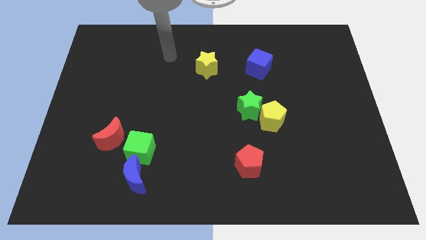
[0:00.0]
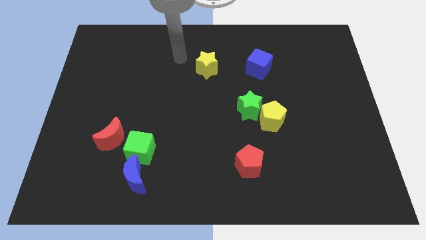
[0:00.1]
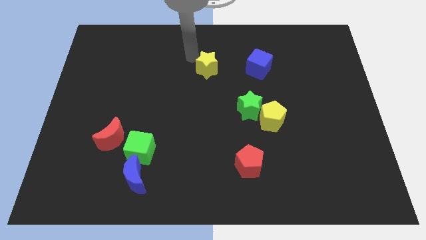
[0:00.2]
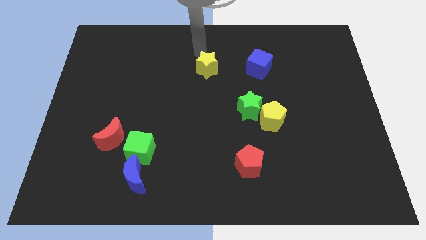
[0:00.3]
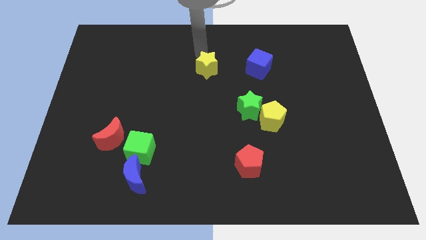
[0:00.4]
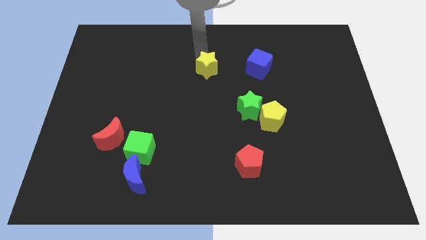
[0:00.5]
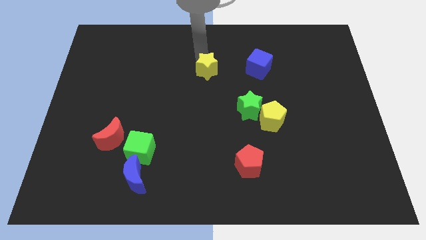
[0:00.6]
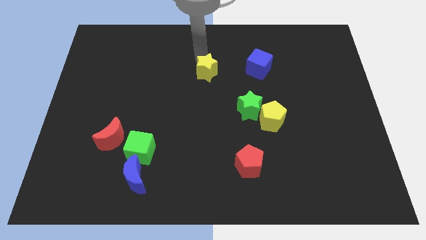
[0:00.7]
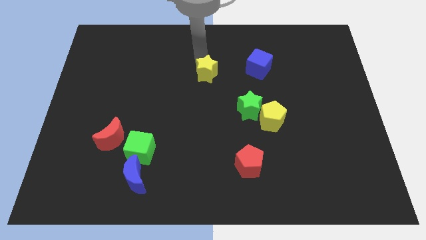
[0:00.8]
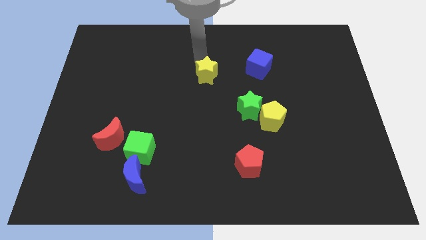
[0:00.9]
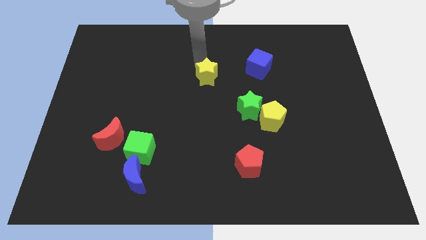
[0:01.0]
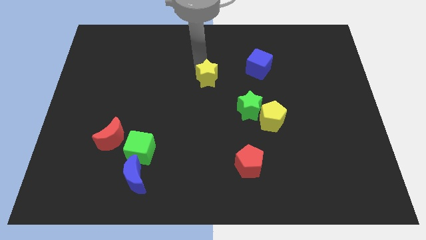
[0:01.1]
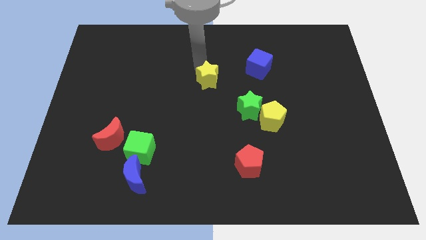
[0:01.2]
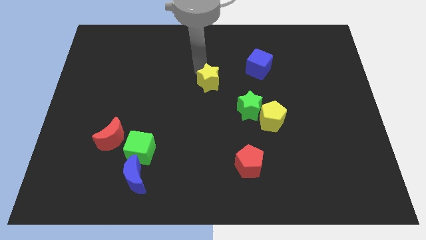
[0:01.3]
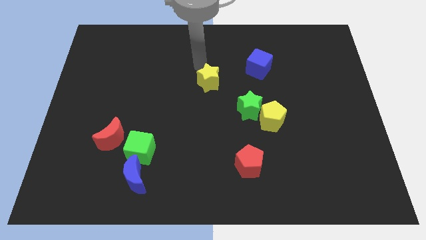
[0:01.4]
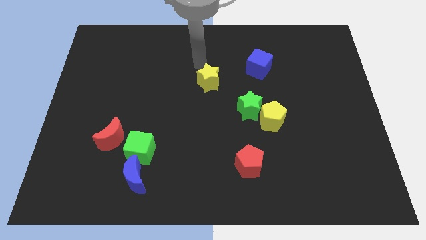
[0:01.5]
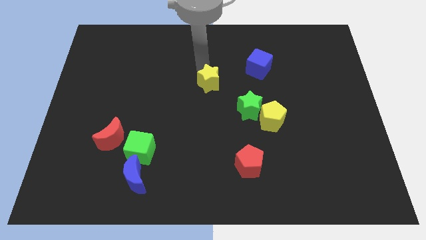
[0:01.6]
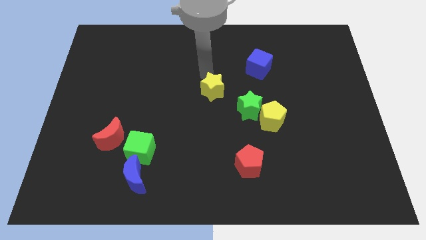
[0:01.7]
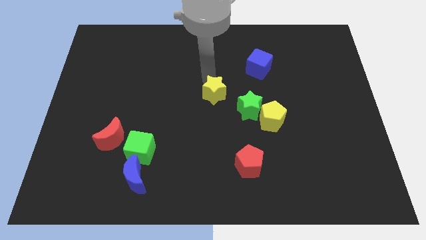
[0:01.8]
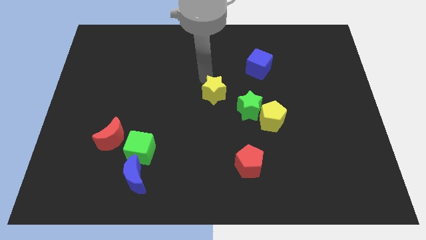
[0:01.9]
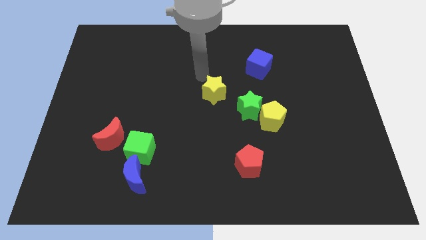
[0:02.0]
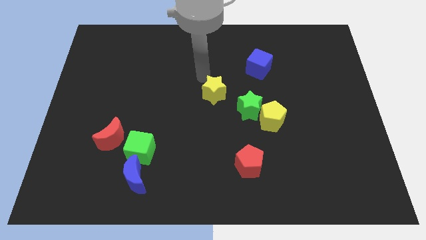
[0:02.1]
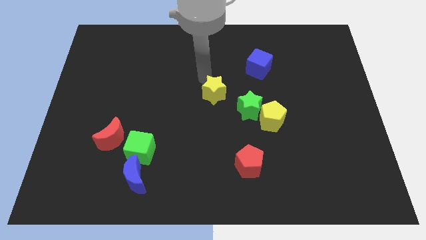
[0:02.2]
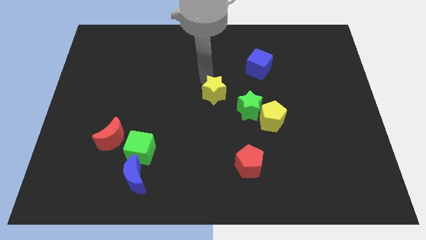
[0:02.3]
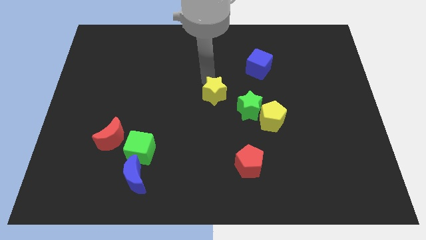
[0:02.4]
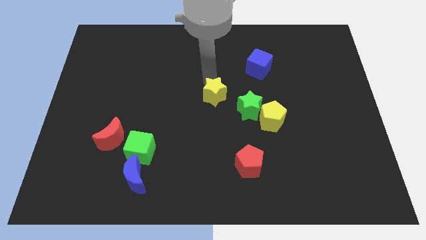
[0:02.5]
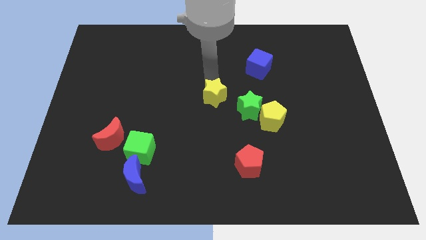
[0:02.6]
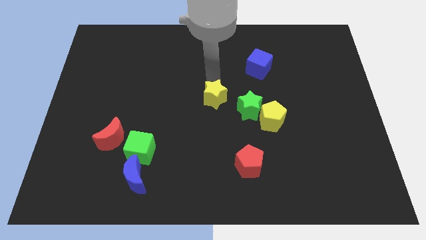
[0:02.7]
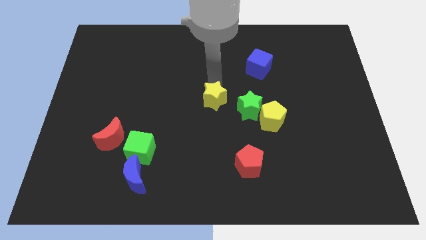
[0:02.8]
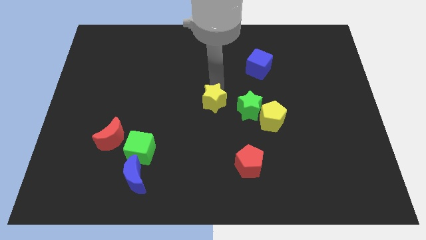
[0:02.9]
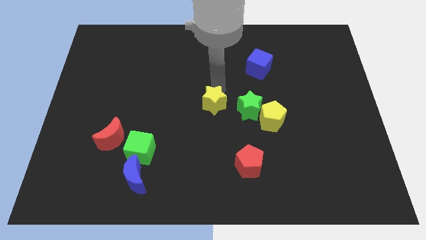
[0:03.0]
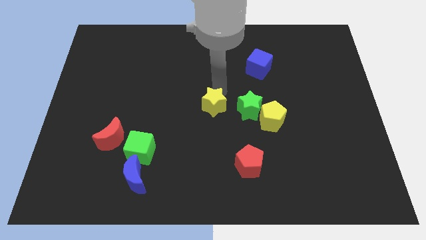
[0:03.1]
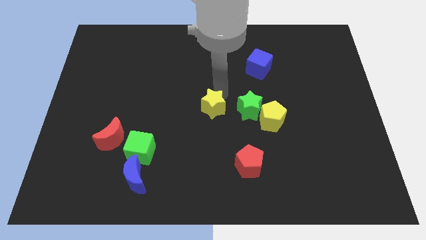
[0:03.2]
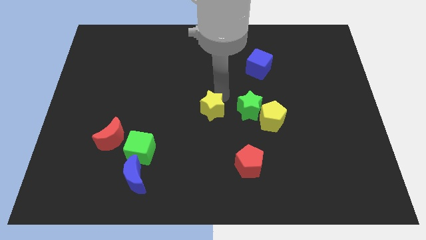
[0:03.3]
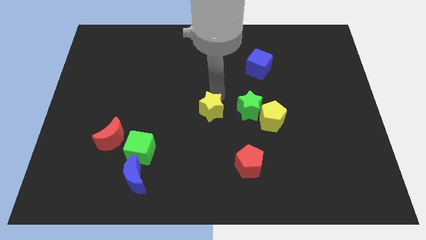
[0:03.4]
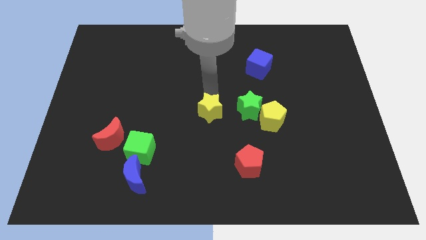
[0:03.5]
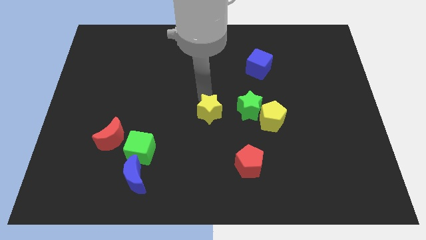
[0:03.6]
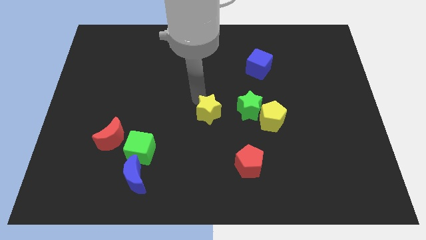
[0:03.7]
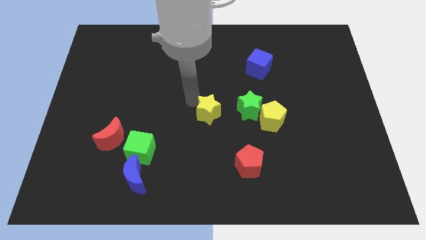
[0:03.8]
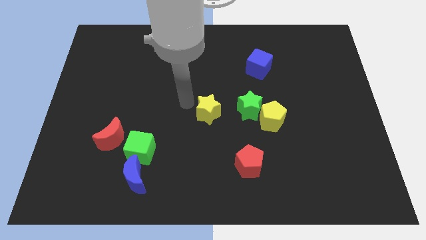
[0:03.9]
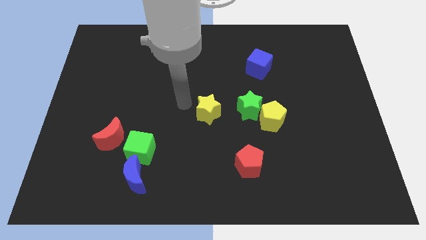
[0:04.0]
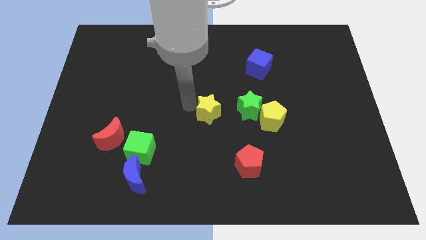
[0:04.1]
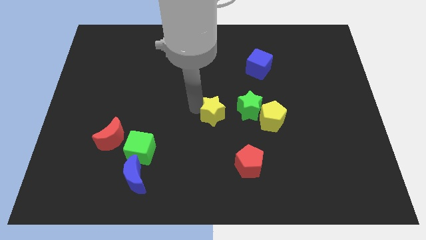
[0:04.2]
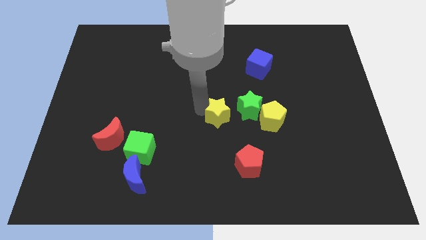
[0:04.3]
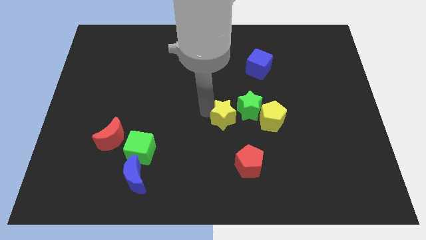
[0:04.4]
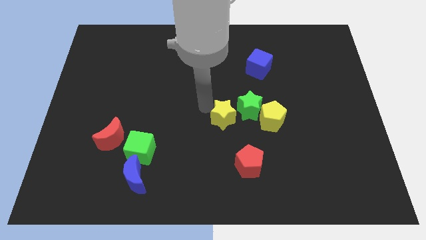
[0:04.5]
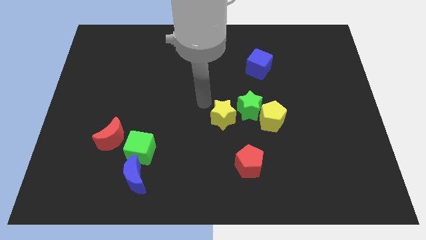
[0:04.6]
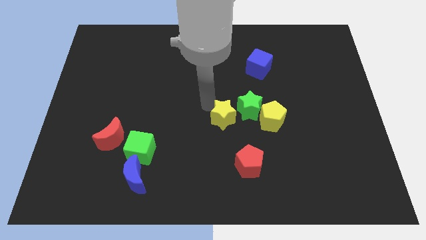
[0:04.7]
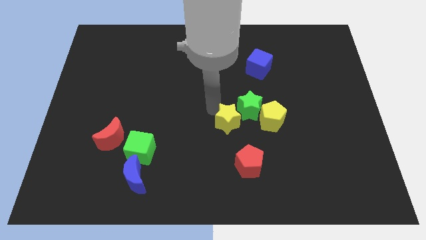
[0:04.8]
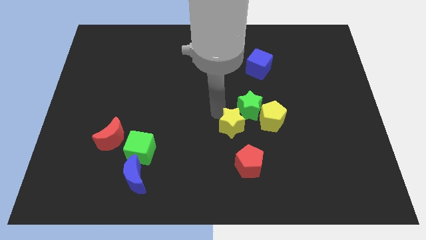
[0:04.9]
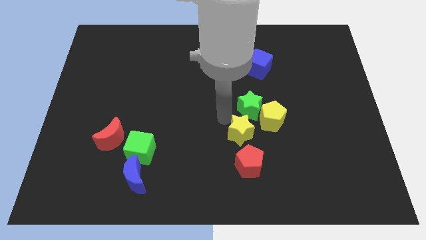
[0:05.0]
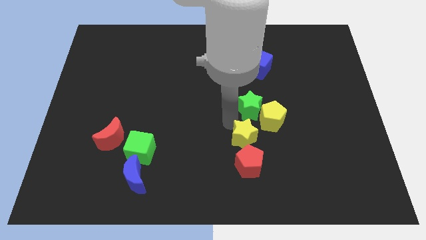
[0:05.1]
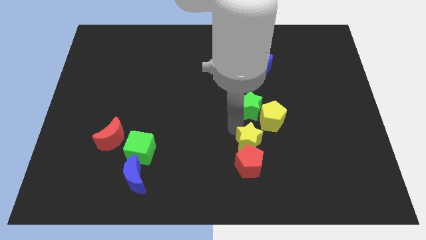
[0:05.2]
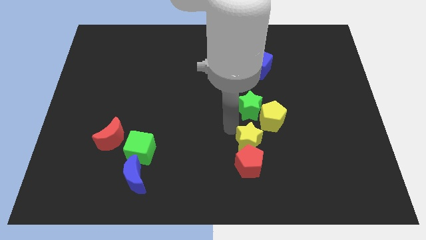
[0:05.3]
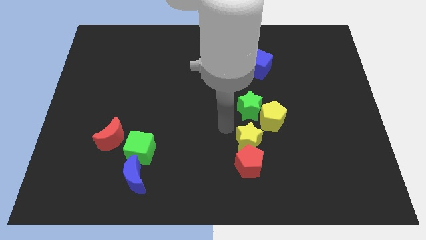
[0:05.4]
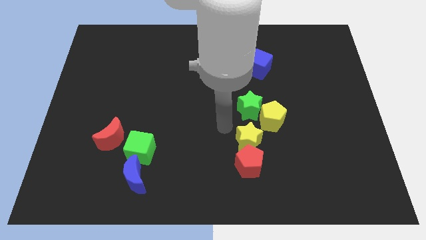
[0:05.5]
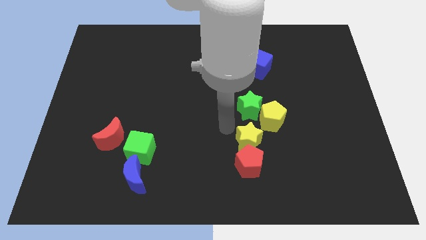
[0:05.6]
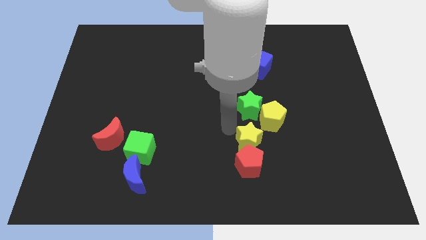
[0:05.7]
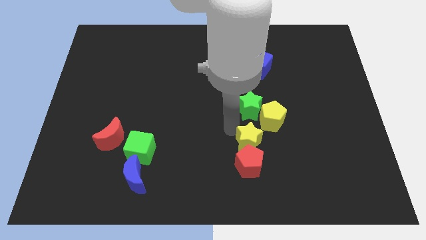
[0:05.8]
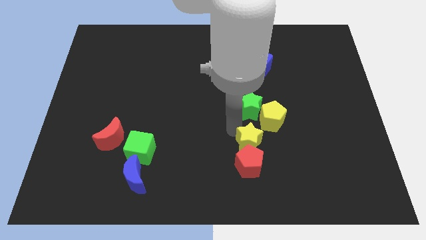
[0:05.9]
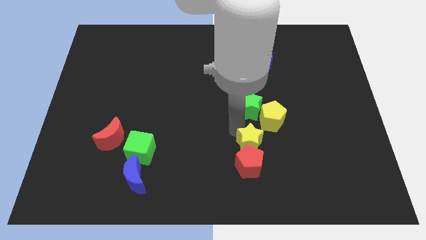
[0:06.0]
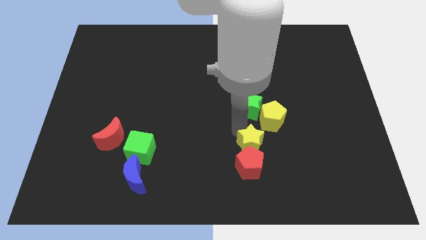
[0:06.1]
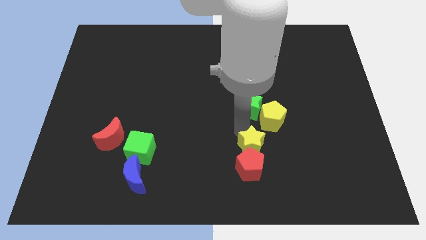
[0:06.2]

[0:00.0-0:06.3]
put the yellow star to the bottom side of the yellow pentagon

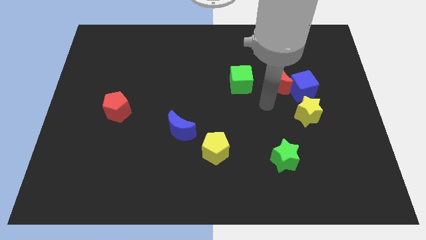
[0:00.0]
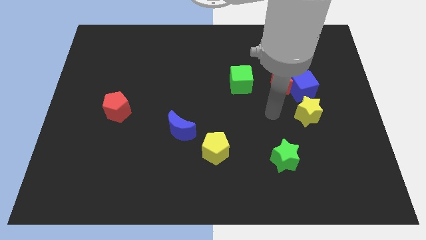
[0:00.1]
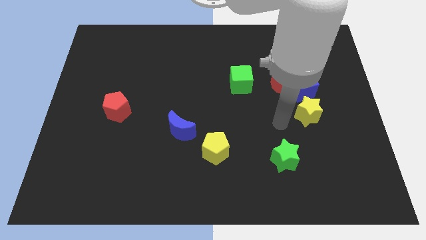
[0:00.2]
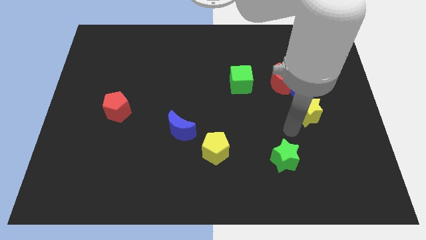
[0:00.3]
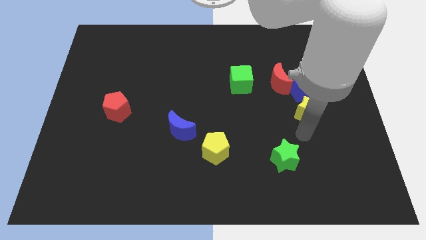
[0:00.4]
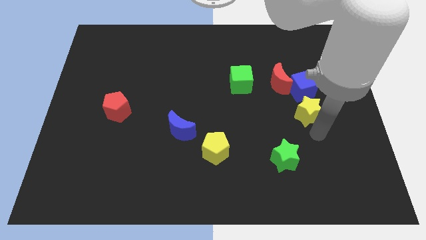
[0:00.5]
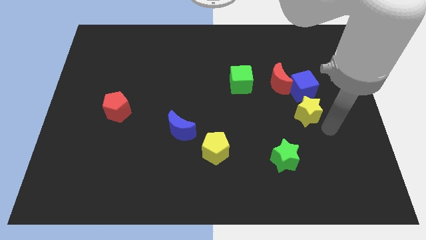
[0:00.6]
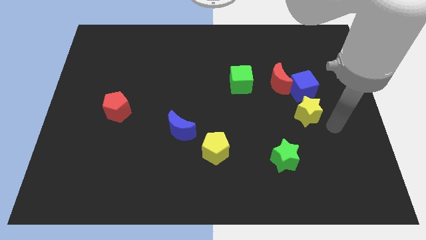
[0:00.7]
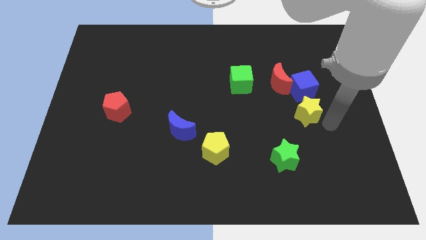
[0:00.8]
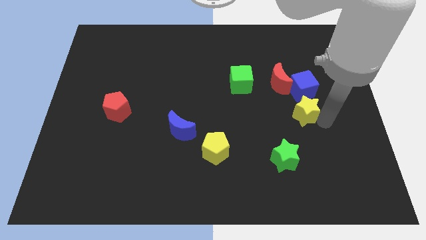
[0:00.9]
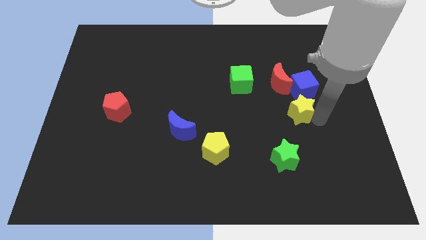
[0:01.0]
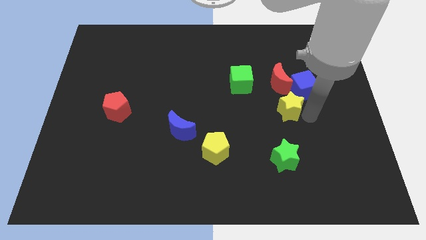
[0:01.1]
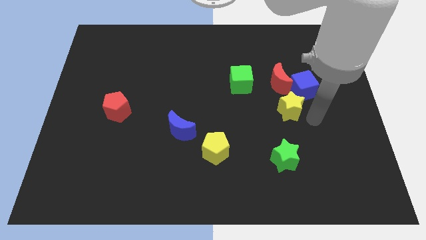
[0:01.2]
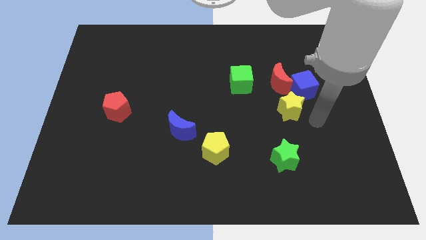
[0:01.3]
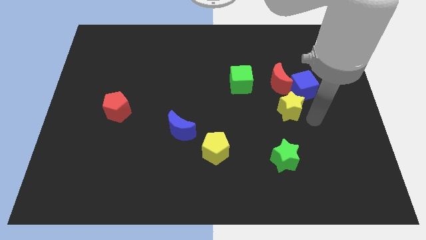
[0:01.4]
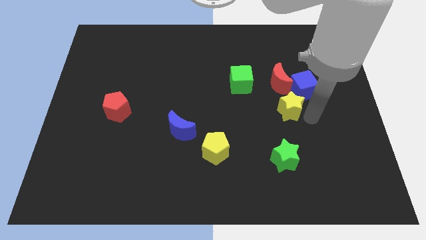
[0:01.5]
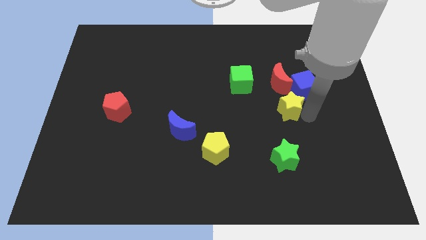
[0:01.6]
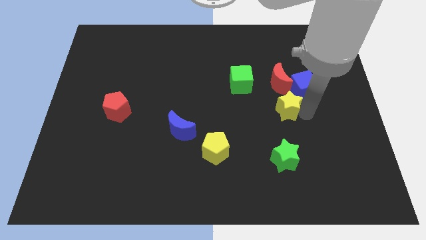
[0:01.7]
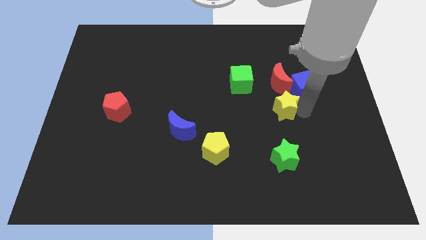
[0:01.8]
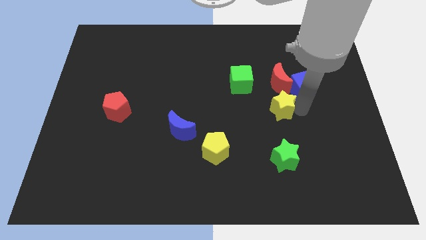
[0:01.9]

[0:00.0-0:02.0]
move the yellow star diagonally down and to the right of the green cube
